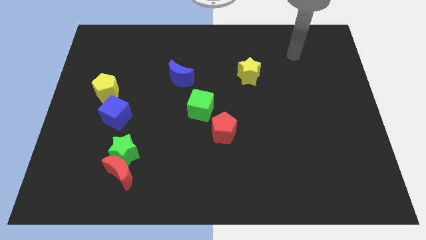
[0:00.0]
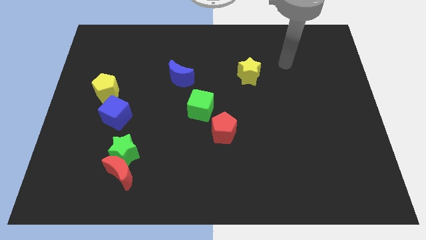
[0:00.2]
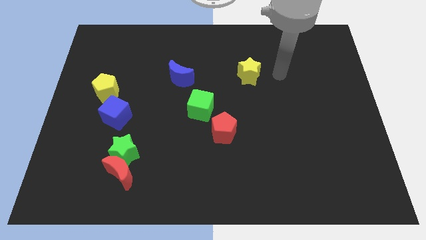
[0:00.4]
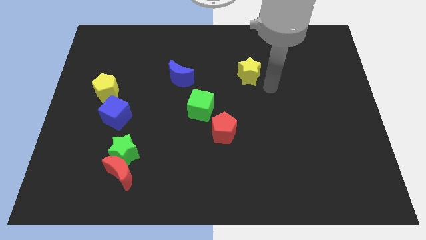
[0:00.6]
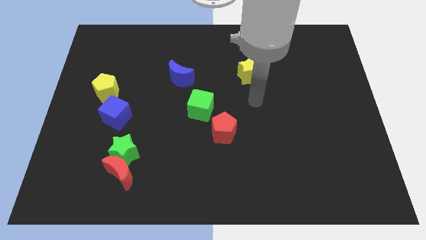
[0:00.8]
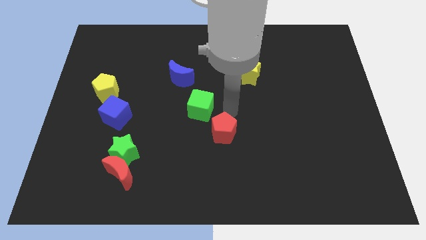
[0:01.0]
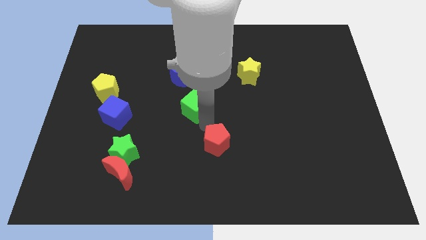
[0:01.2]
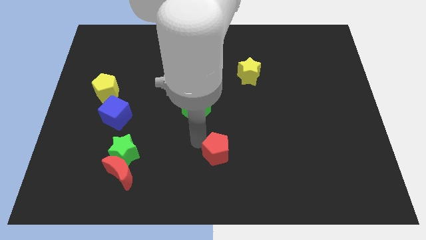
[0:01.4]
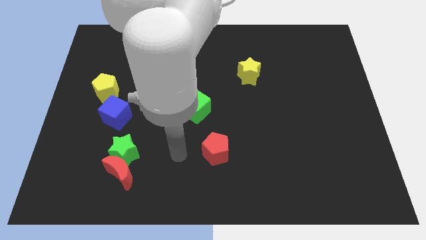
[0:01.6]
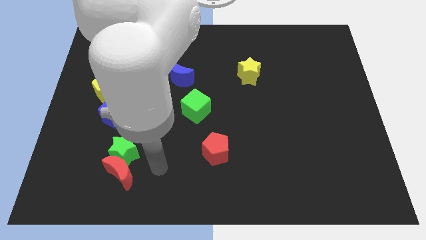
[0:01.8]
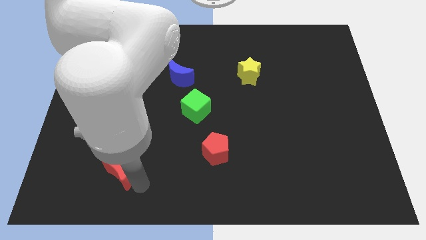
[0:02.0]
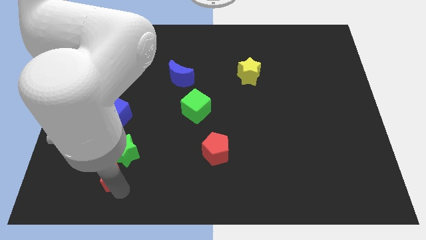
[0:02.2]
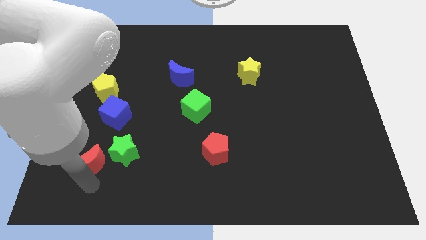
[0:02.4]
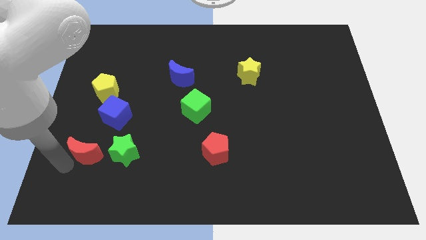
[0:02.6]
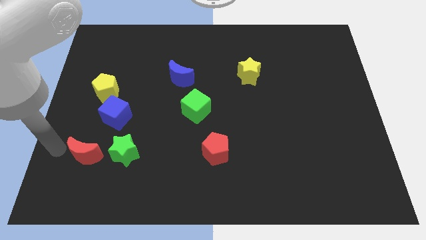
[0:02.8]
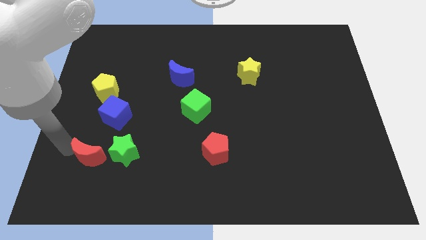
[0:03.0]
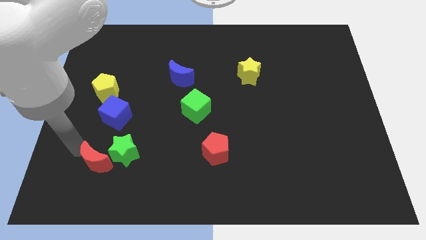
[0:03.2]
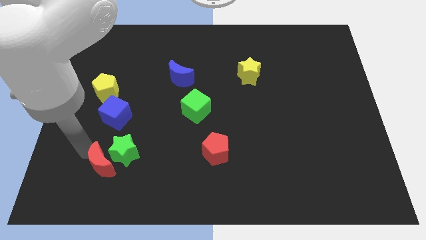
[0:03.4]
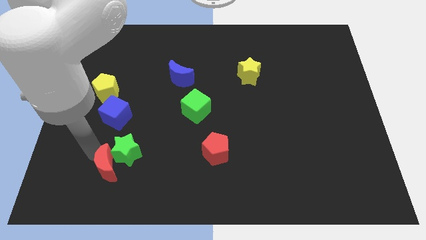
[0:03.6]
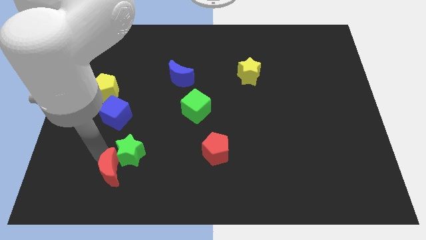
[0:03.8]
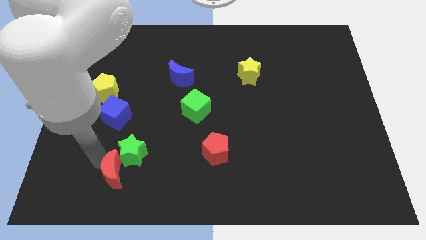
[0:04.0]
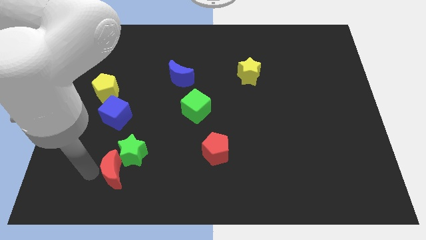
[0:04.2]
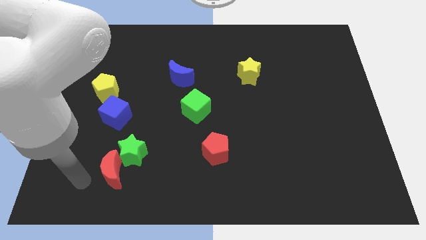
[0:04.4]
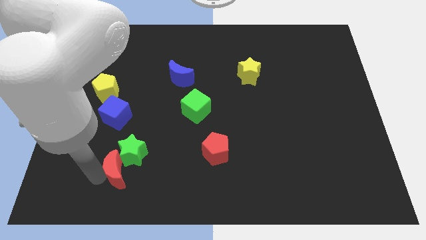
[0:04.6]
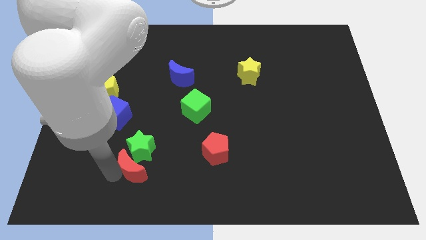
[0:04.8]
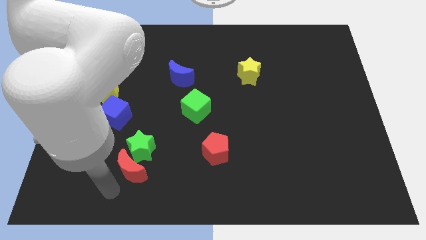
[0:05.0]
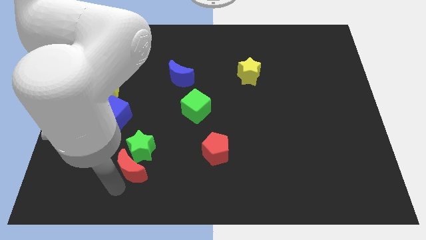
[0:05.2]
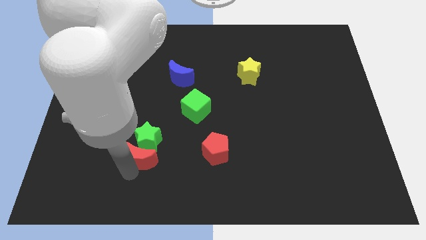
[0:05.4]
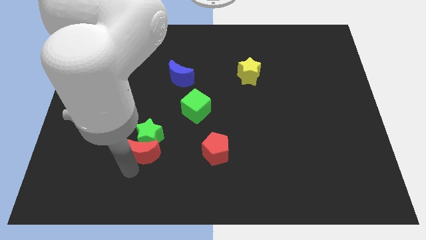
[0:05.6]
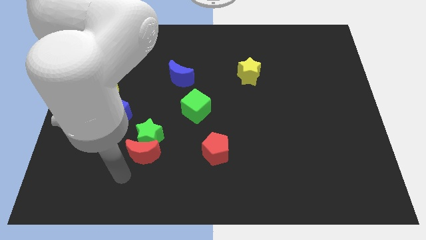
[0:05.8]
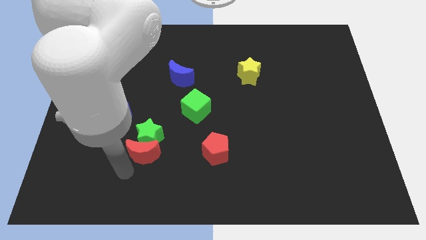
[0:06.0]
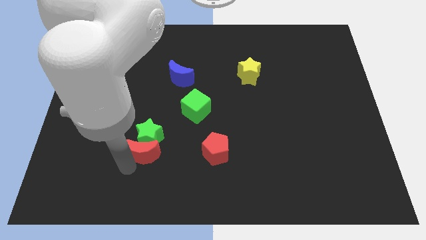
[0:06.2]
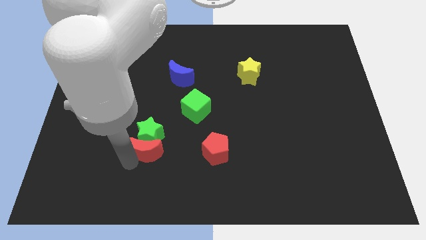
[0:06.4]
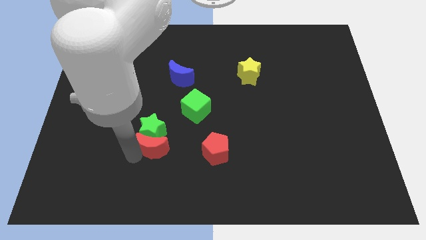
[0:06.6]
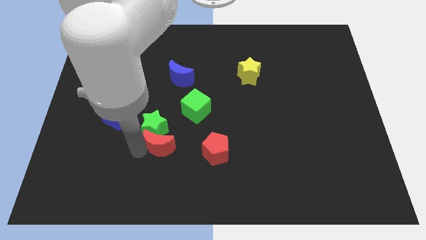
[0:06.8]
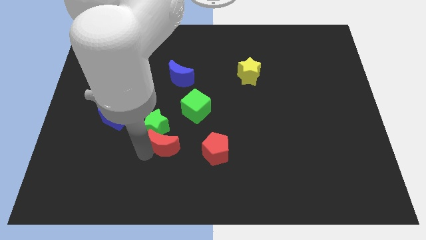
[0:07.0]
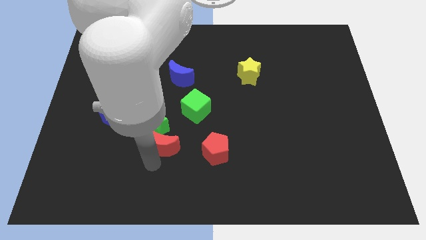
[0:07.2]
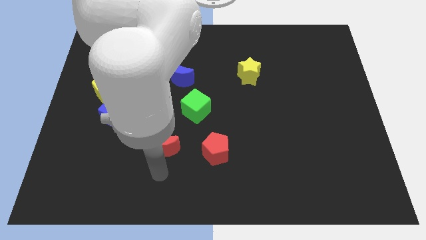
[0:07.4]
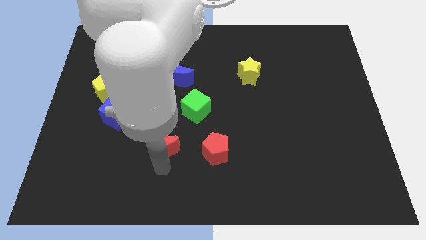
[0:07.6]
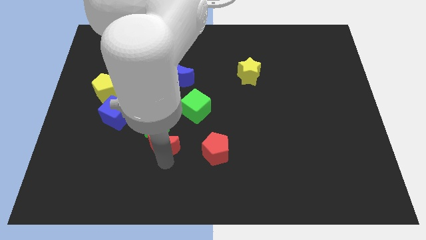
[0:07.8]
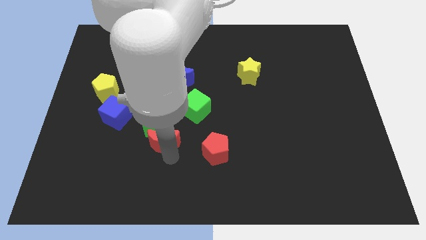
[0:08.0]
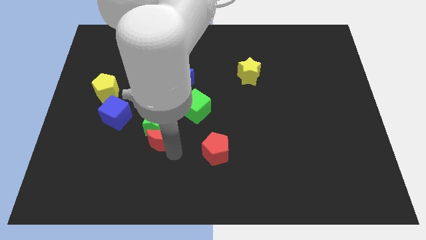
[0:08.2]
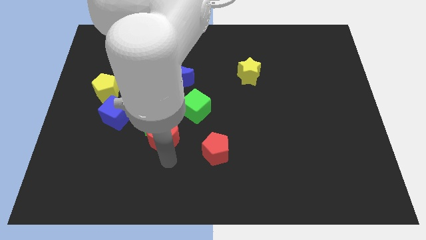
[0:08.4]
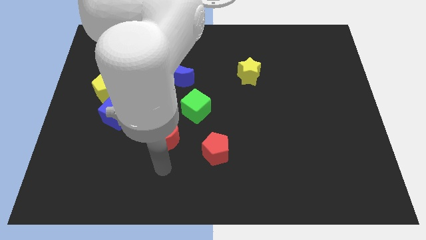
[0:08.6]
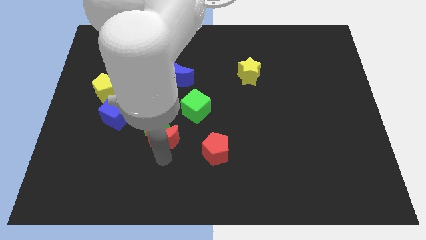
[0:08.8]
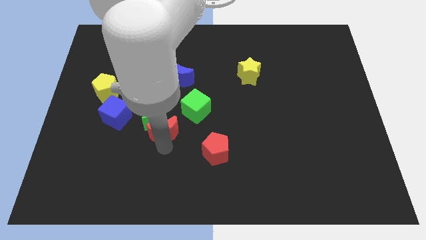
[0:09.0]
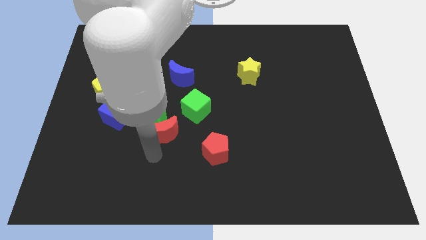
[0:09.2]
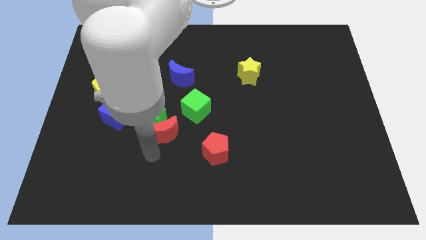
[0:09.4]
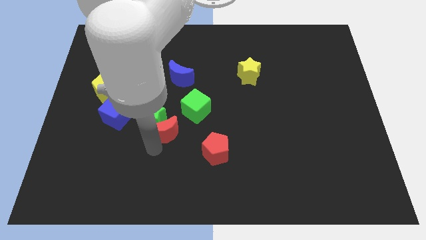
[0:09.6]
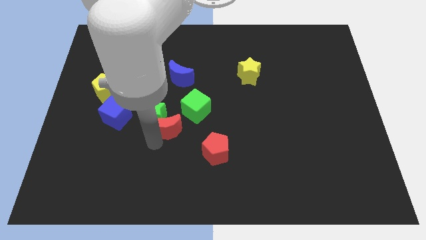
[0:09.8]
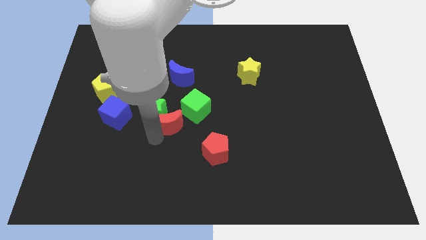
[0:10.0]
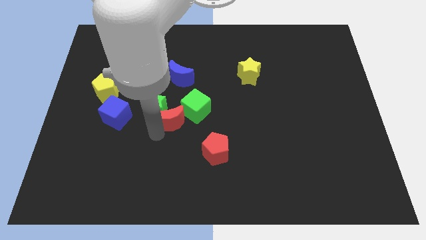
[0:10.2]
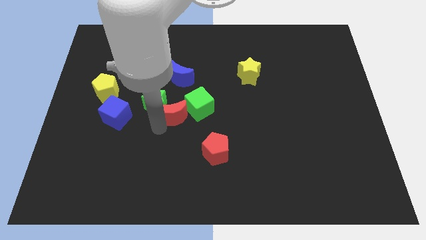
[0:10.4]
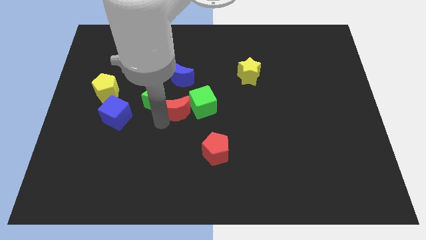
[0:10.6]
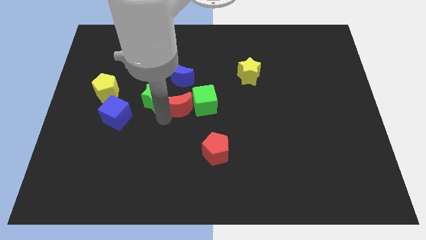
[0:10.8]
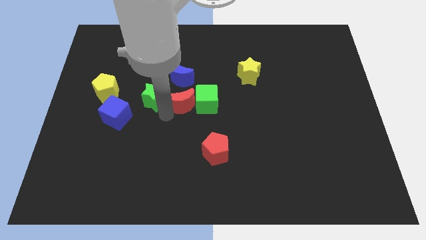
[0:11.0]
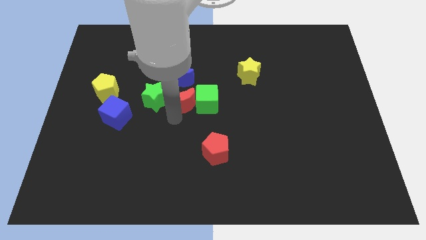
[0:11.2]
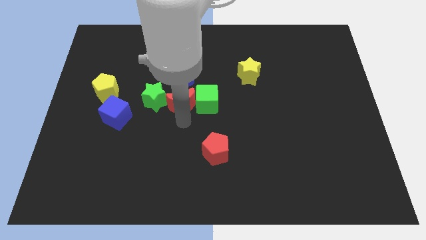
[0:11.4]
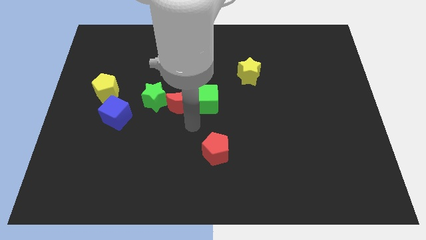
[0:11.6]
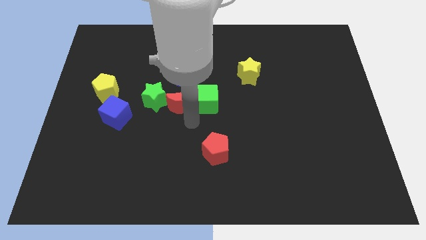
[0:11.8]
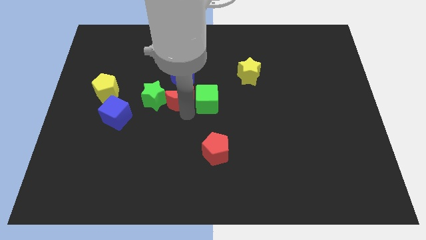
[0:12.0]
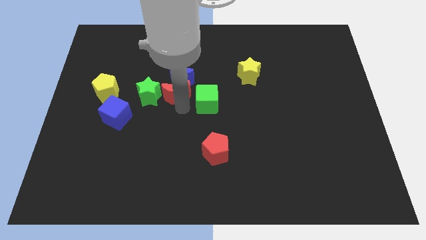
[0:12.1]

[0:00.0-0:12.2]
push the red moon close to the blue moon

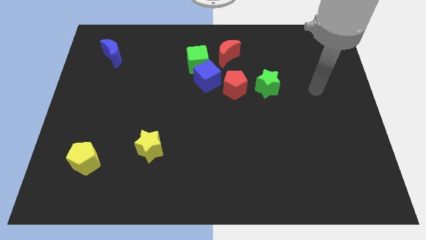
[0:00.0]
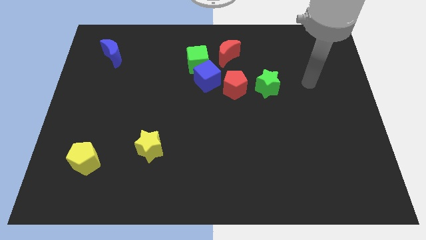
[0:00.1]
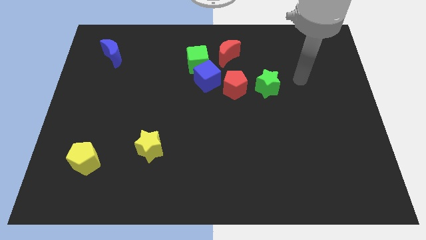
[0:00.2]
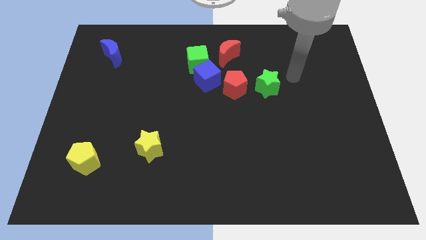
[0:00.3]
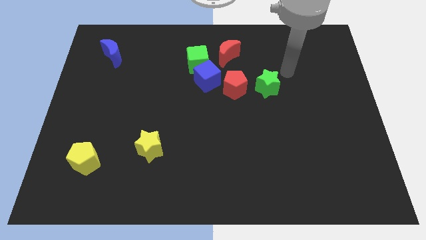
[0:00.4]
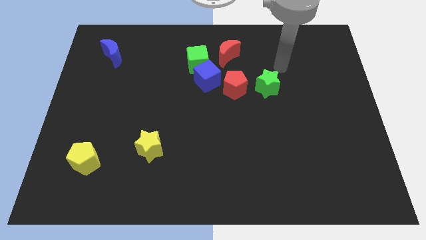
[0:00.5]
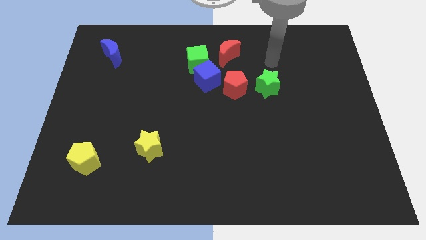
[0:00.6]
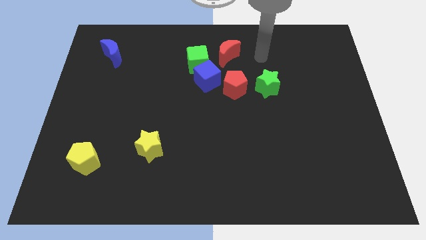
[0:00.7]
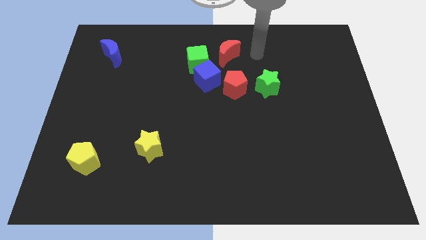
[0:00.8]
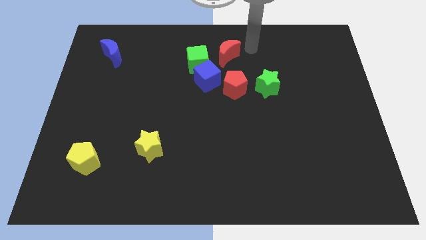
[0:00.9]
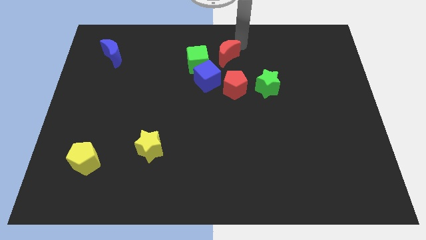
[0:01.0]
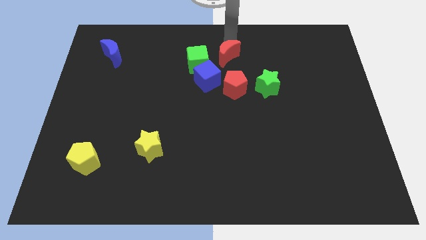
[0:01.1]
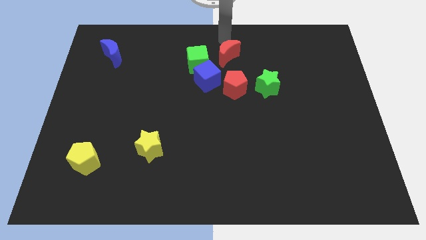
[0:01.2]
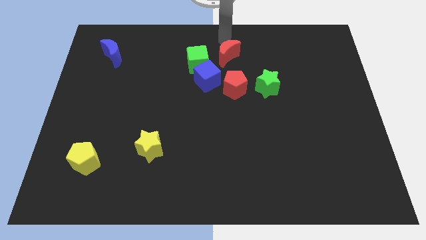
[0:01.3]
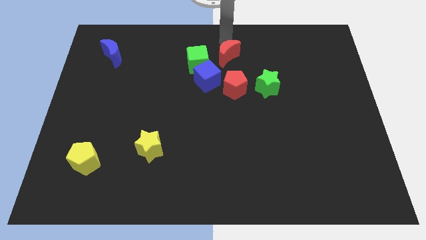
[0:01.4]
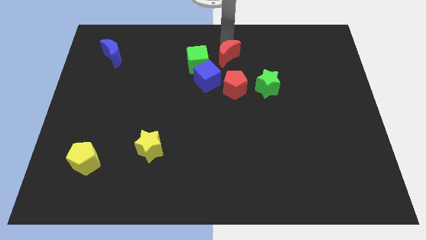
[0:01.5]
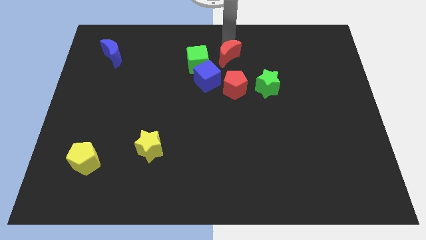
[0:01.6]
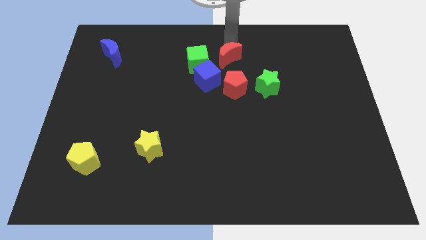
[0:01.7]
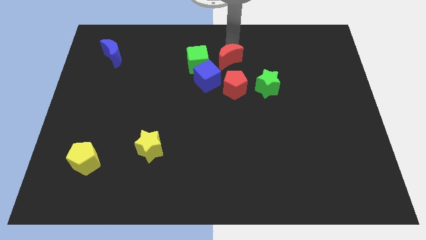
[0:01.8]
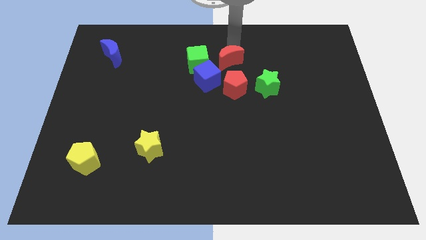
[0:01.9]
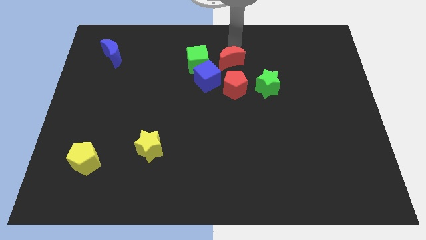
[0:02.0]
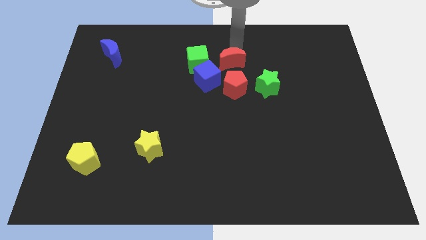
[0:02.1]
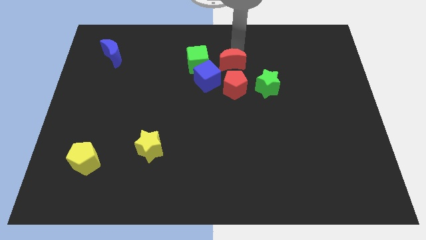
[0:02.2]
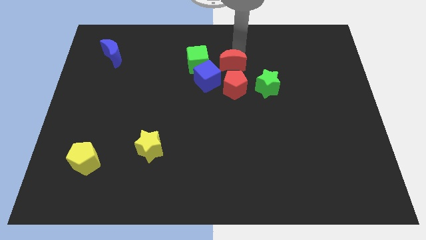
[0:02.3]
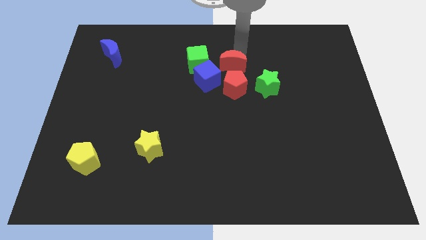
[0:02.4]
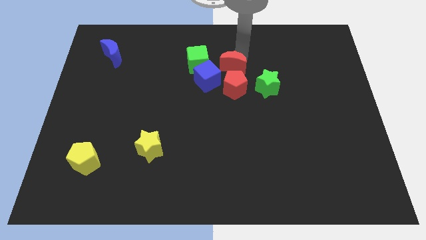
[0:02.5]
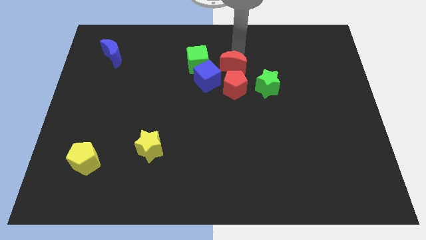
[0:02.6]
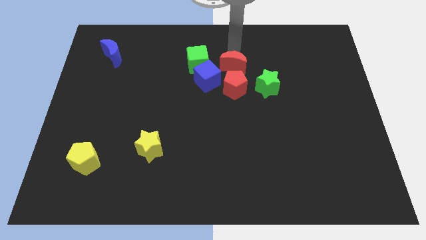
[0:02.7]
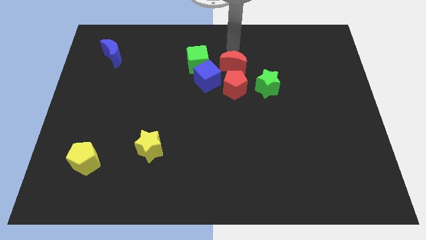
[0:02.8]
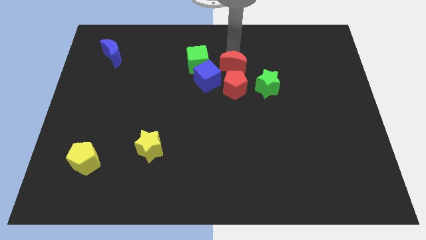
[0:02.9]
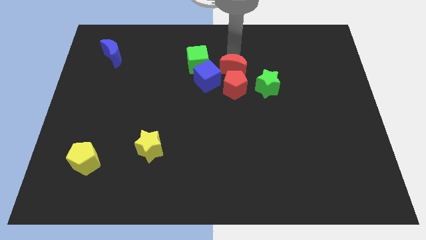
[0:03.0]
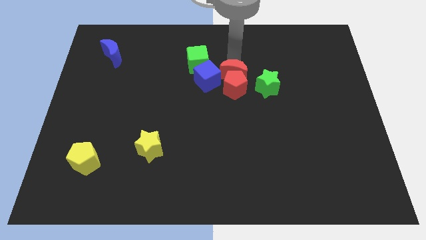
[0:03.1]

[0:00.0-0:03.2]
slide the red moon next to the red pentagon
